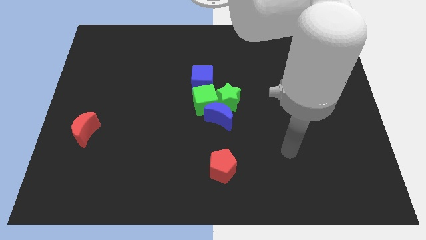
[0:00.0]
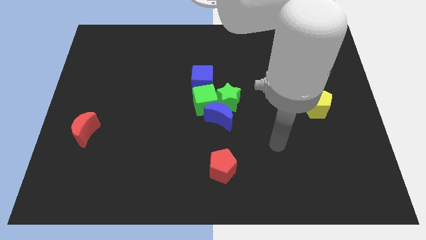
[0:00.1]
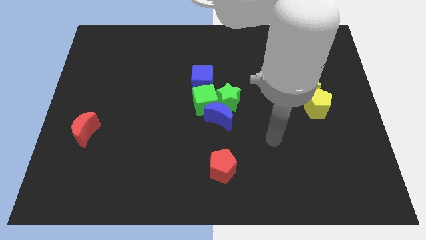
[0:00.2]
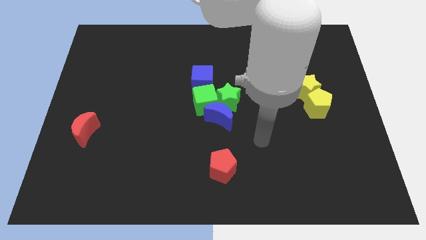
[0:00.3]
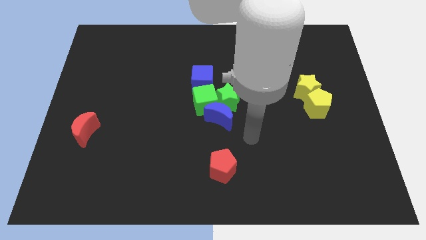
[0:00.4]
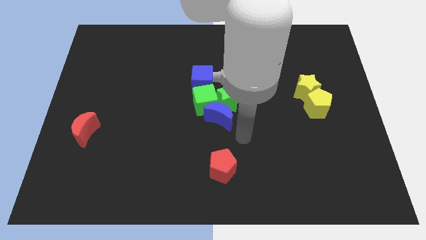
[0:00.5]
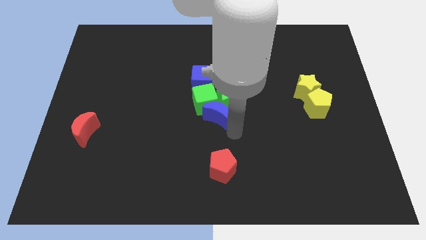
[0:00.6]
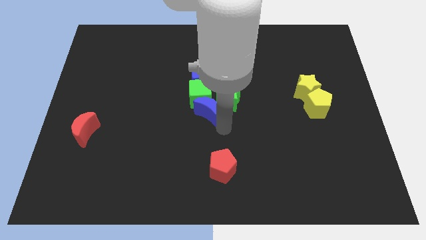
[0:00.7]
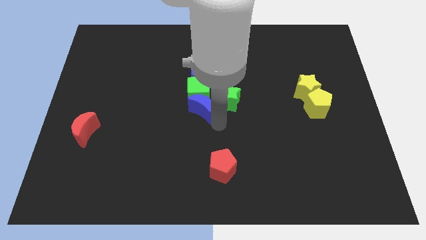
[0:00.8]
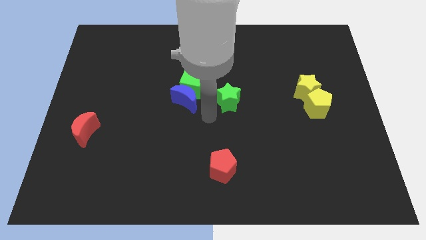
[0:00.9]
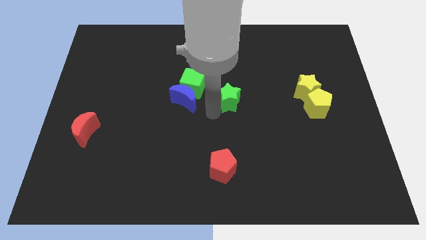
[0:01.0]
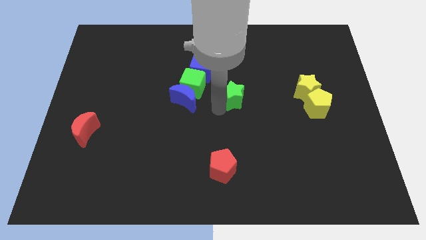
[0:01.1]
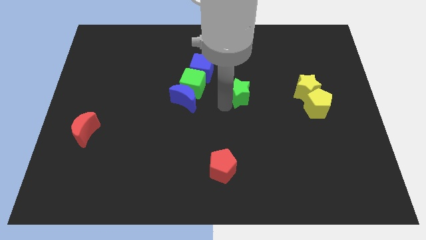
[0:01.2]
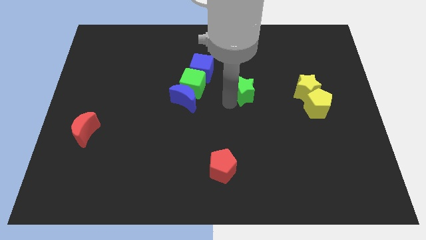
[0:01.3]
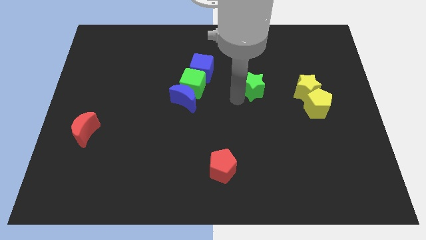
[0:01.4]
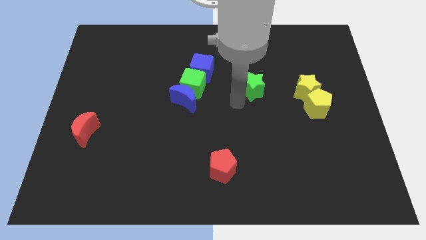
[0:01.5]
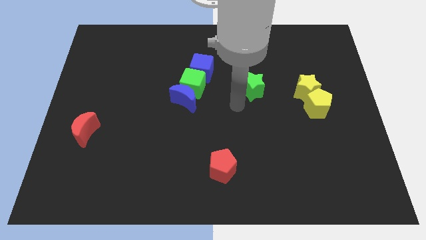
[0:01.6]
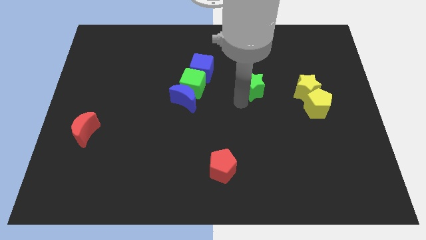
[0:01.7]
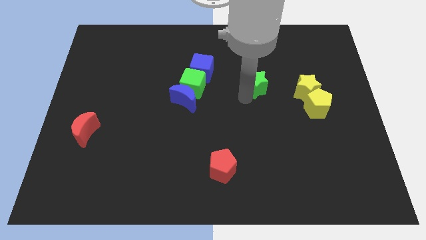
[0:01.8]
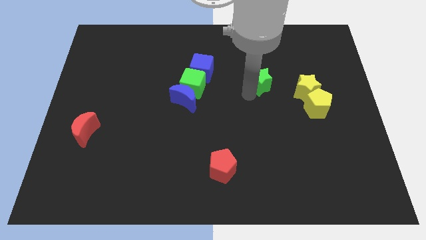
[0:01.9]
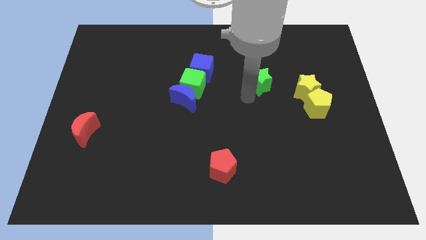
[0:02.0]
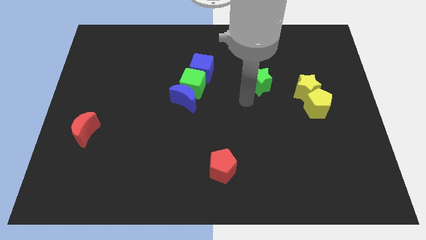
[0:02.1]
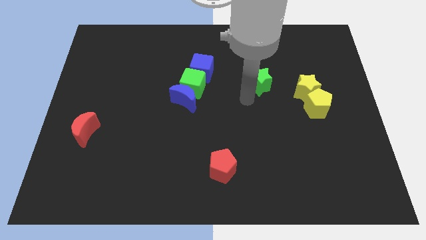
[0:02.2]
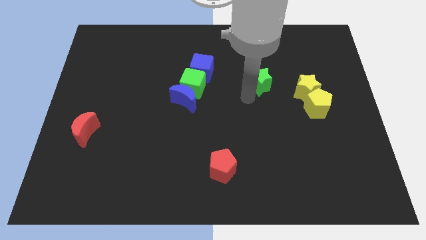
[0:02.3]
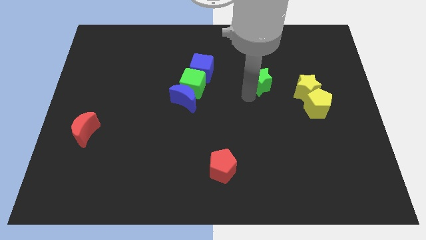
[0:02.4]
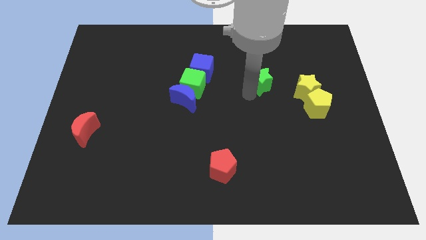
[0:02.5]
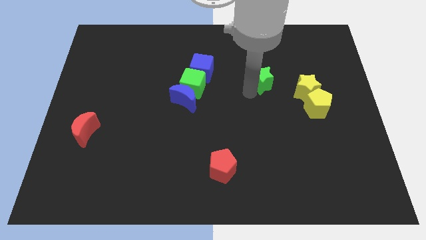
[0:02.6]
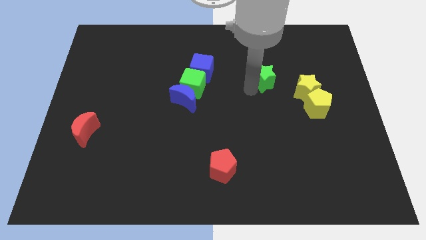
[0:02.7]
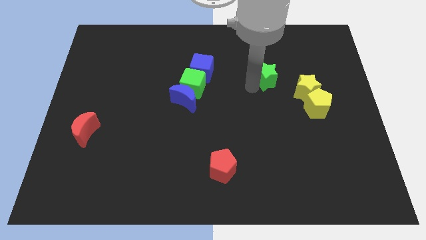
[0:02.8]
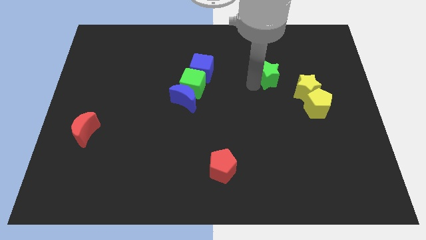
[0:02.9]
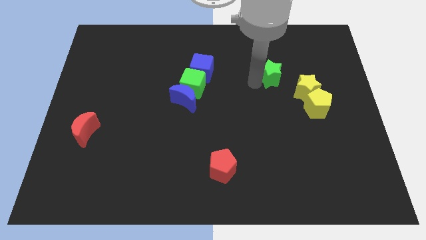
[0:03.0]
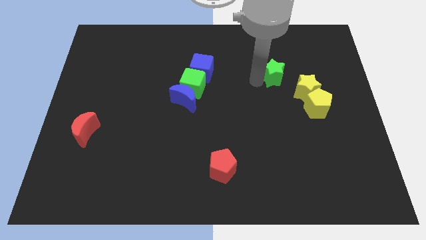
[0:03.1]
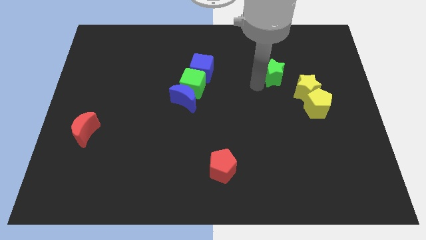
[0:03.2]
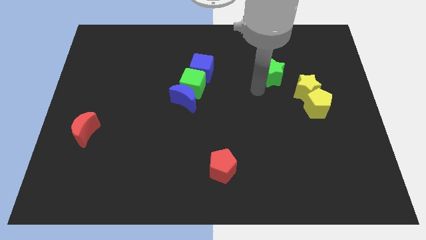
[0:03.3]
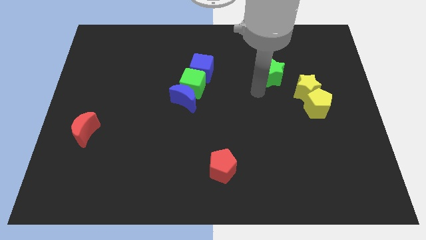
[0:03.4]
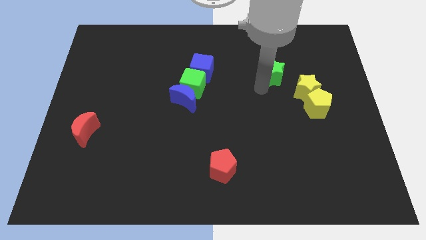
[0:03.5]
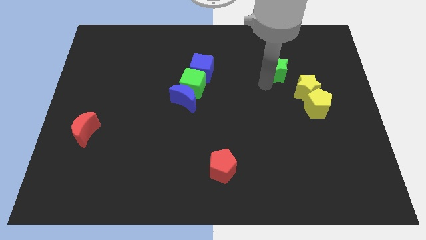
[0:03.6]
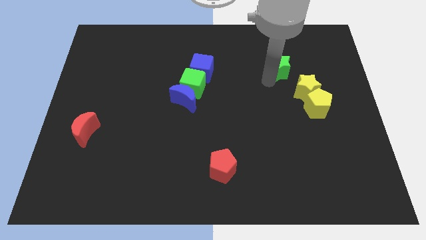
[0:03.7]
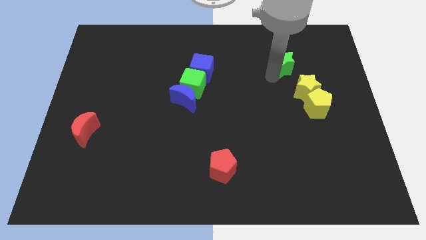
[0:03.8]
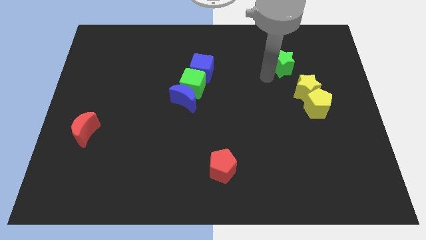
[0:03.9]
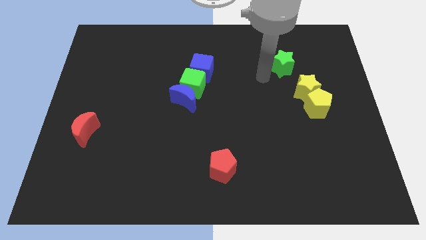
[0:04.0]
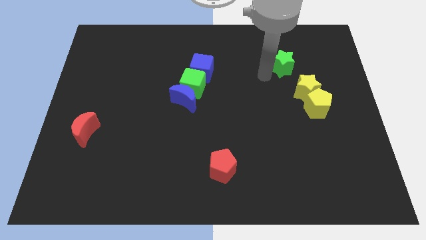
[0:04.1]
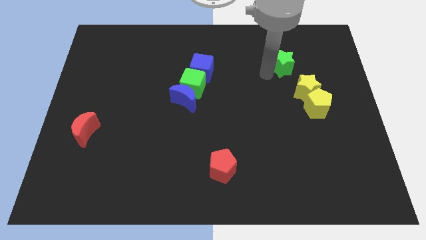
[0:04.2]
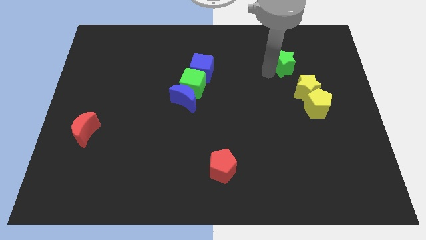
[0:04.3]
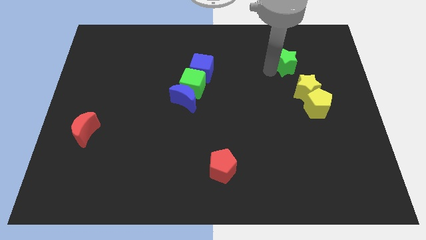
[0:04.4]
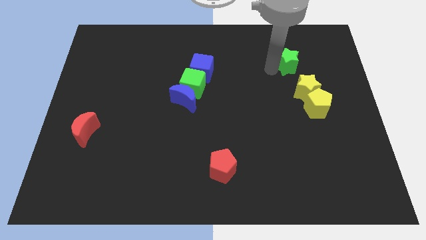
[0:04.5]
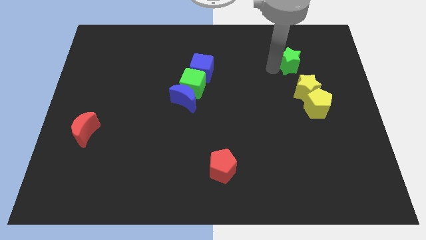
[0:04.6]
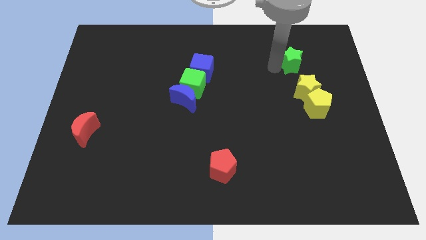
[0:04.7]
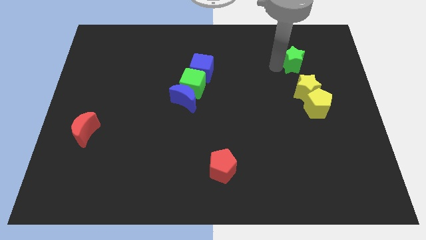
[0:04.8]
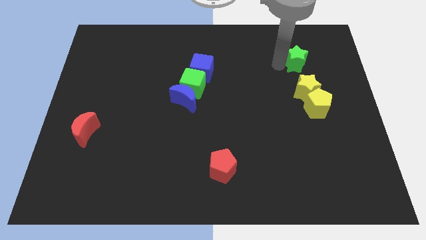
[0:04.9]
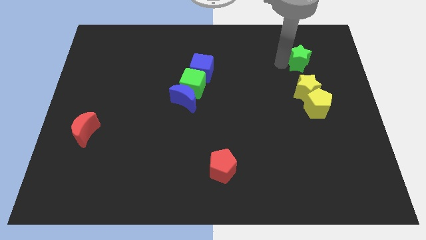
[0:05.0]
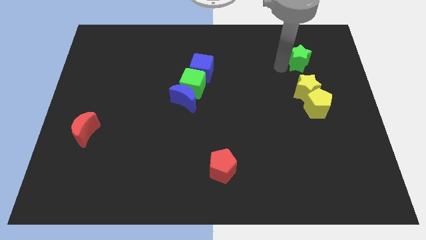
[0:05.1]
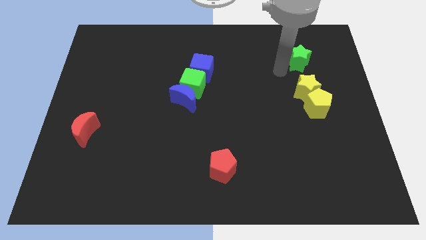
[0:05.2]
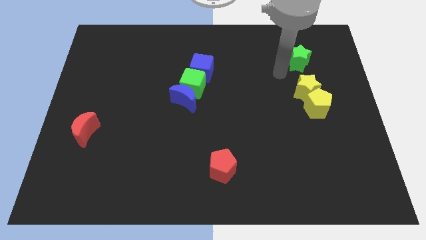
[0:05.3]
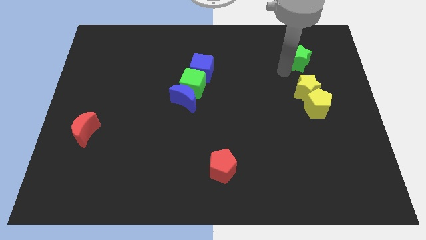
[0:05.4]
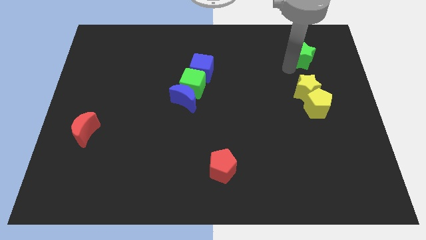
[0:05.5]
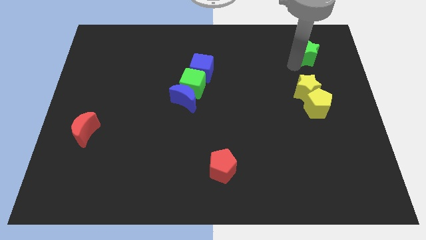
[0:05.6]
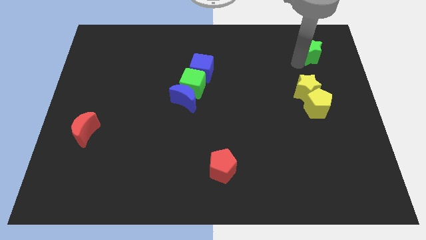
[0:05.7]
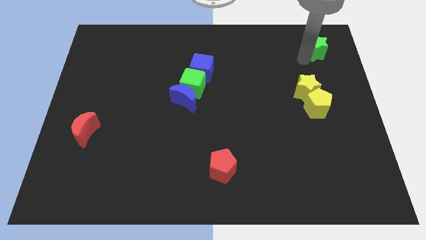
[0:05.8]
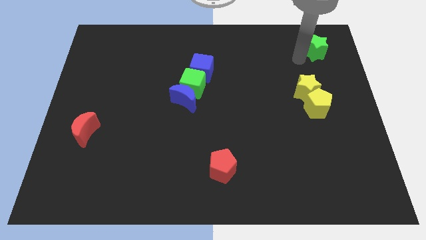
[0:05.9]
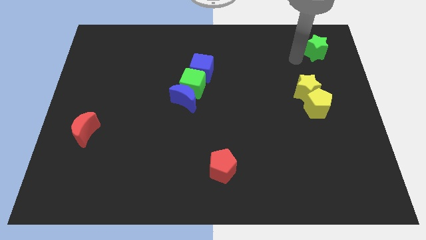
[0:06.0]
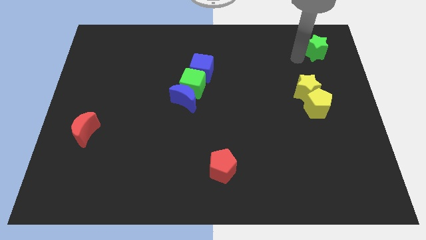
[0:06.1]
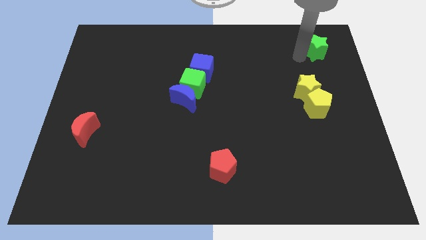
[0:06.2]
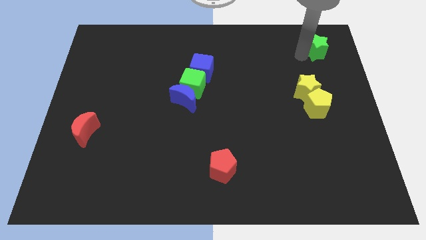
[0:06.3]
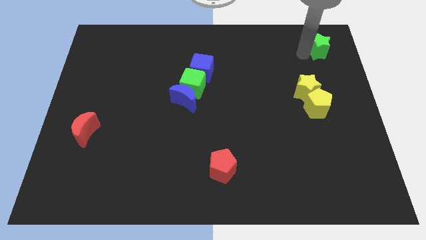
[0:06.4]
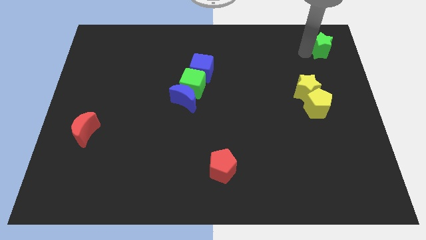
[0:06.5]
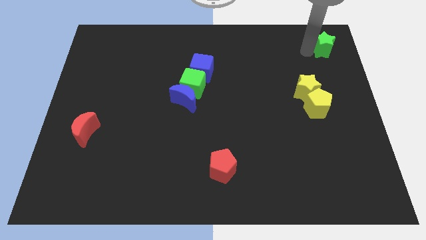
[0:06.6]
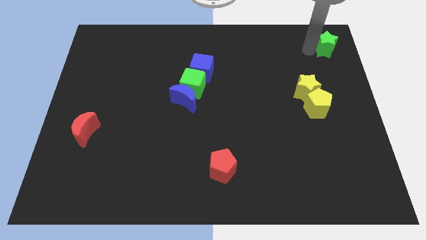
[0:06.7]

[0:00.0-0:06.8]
push the green star to the top right corner
